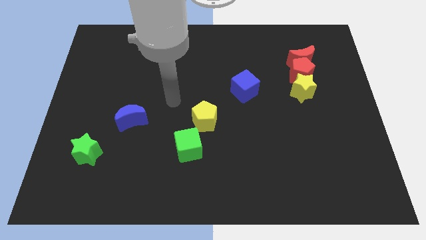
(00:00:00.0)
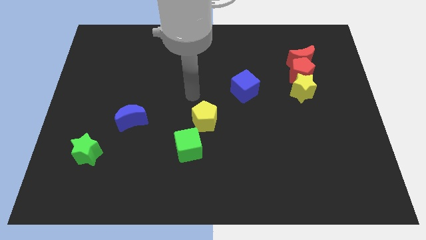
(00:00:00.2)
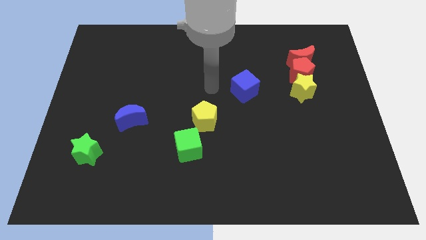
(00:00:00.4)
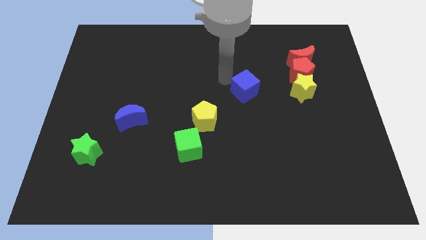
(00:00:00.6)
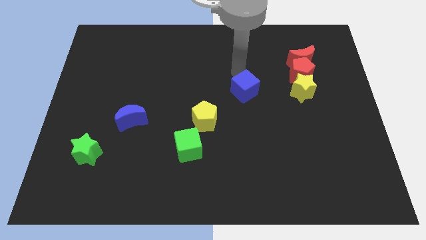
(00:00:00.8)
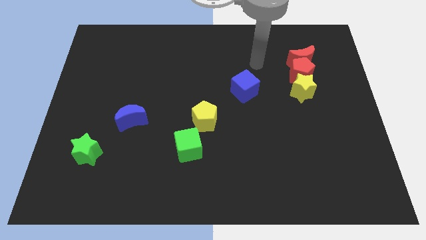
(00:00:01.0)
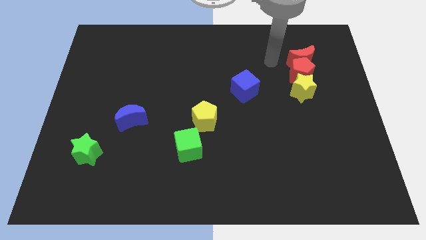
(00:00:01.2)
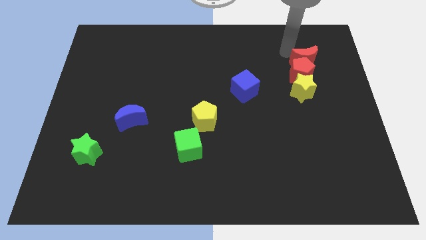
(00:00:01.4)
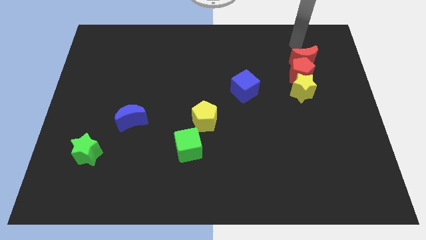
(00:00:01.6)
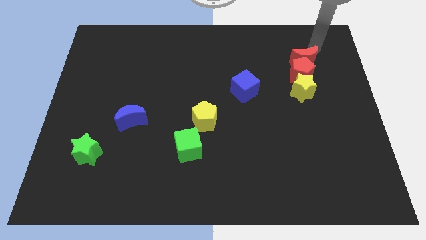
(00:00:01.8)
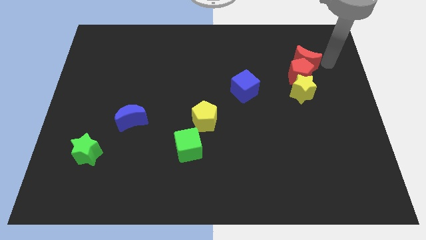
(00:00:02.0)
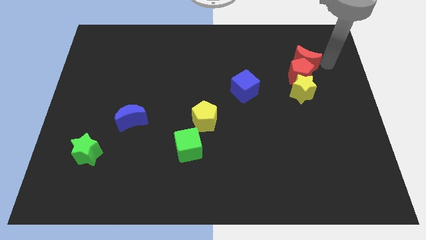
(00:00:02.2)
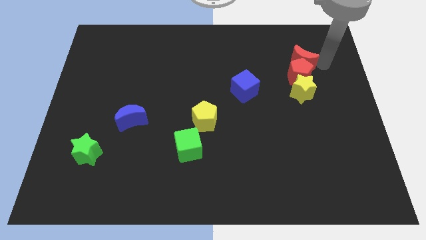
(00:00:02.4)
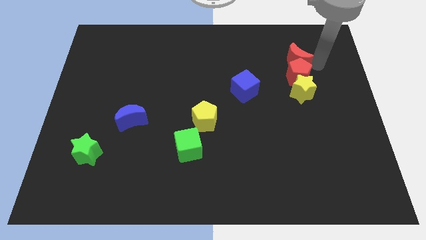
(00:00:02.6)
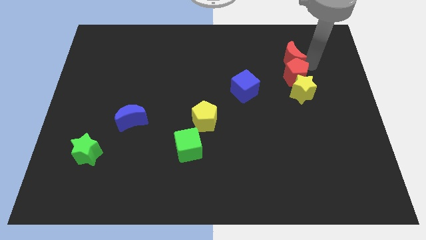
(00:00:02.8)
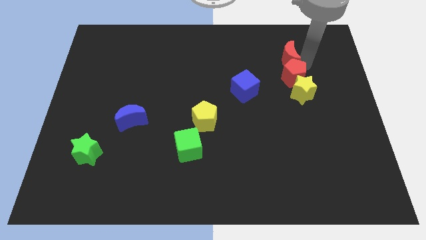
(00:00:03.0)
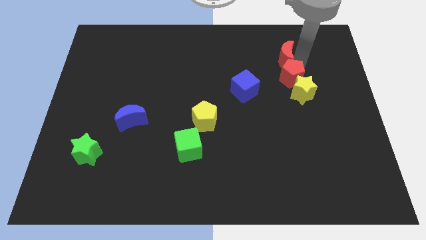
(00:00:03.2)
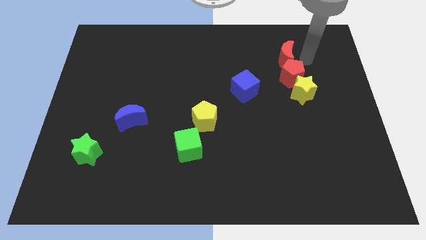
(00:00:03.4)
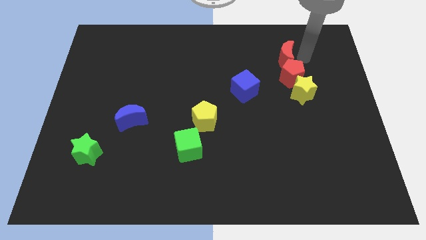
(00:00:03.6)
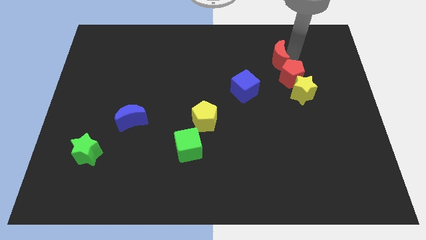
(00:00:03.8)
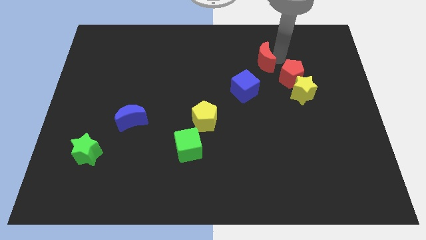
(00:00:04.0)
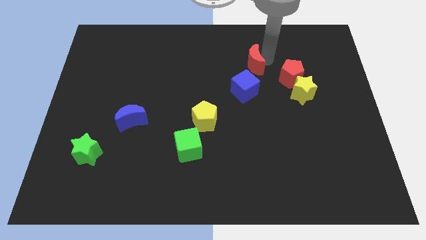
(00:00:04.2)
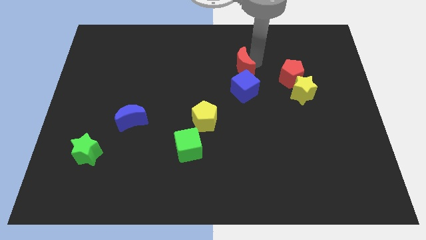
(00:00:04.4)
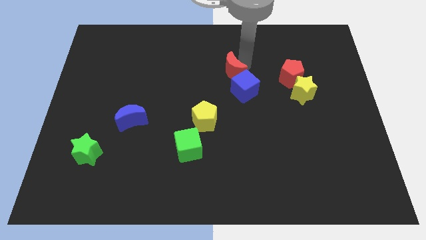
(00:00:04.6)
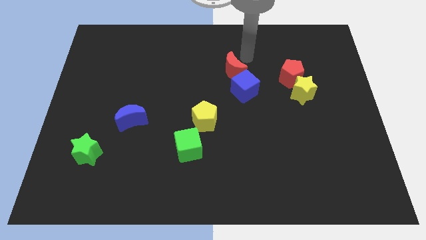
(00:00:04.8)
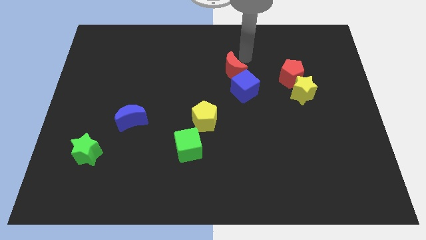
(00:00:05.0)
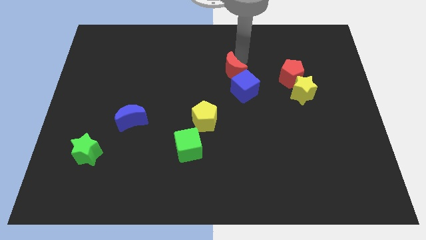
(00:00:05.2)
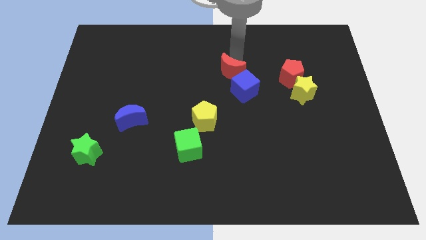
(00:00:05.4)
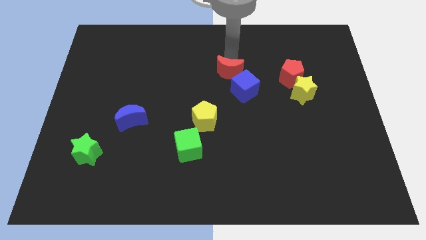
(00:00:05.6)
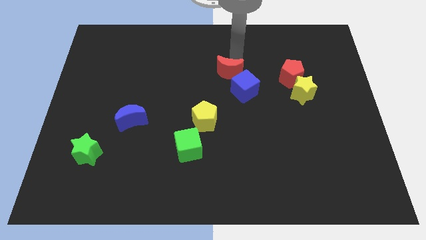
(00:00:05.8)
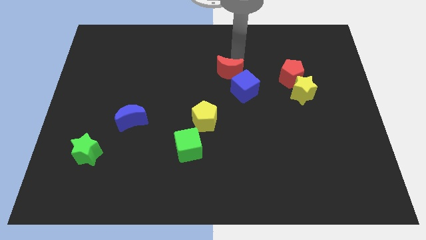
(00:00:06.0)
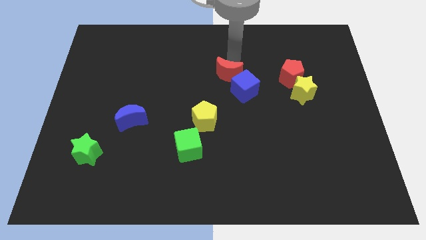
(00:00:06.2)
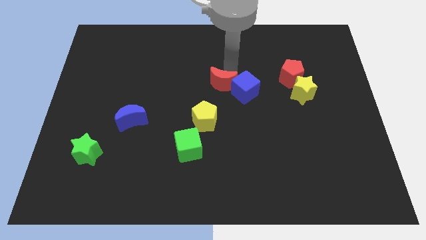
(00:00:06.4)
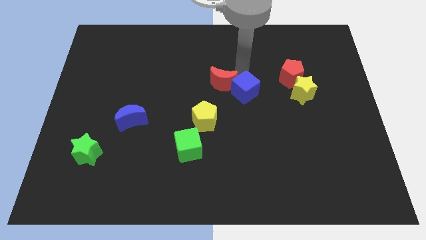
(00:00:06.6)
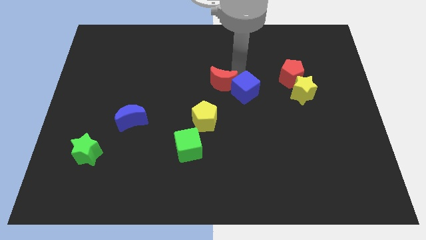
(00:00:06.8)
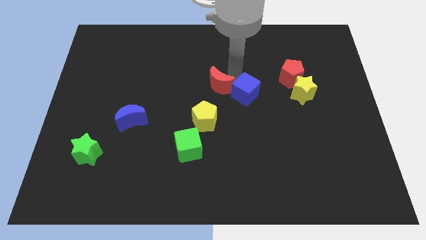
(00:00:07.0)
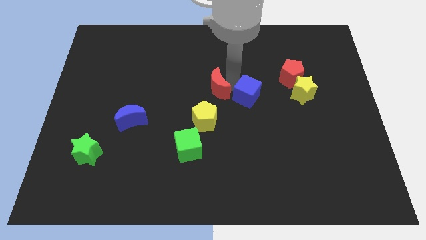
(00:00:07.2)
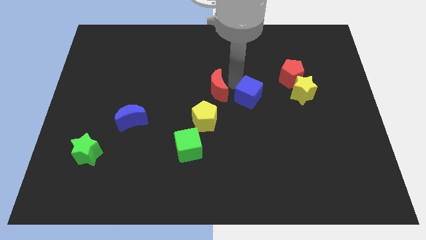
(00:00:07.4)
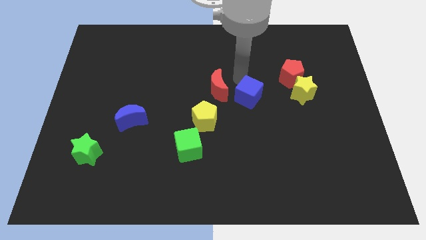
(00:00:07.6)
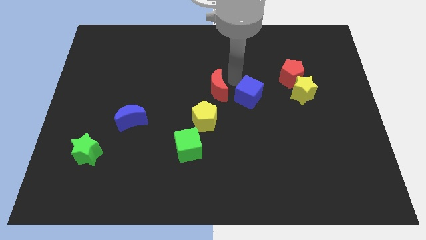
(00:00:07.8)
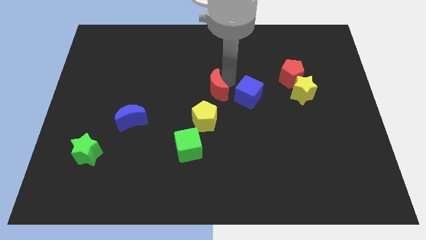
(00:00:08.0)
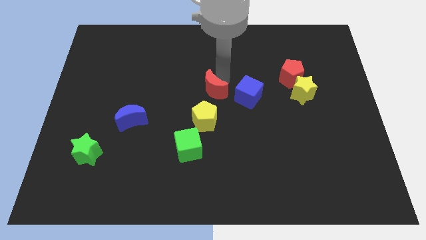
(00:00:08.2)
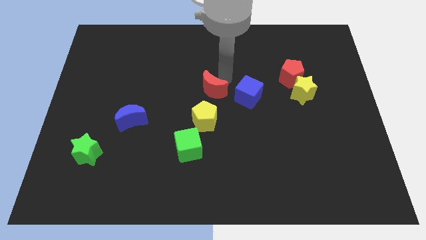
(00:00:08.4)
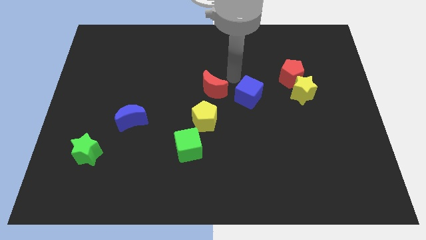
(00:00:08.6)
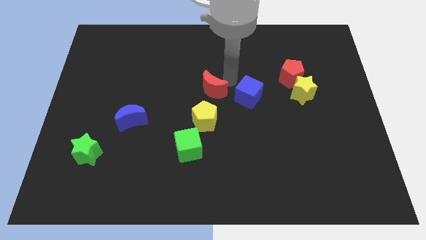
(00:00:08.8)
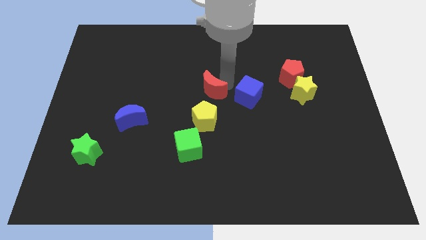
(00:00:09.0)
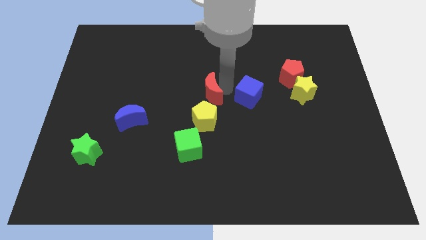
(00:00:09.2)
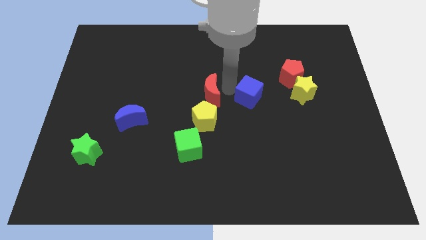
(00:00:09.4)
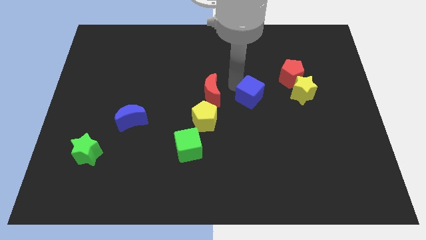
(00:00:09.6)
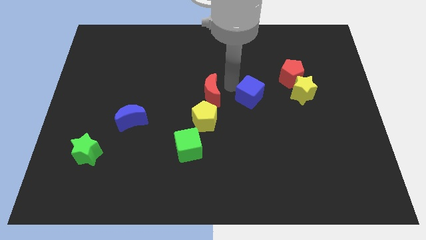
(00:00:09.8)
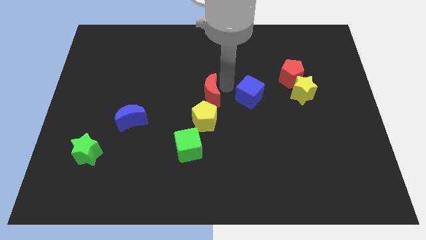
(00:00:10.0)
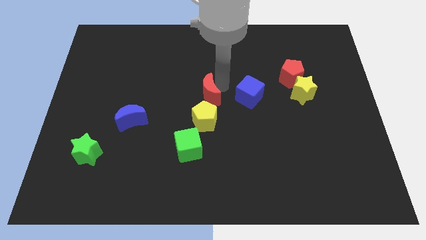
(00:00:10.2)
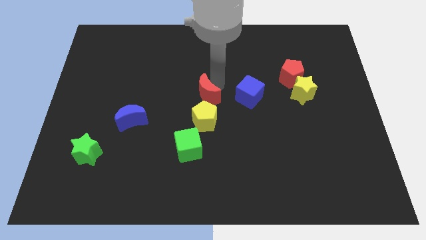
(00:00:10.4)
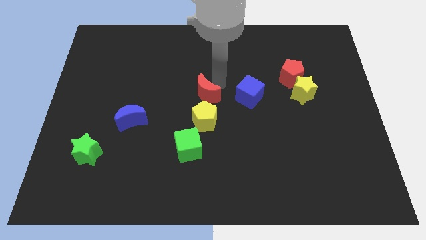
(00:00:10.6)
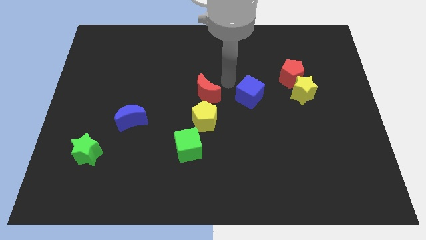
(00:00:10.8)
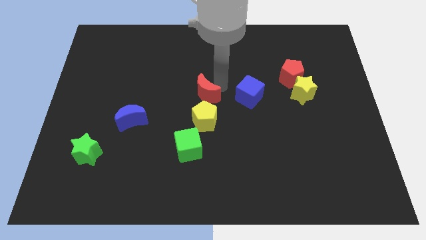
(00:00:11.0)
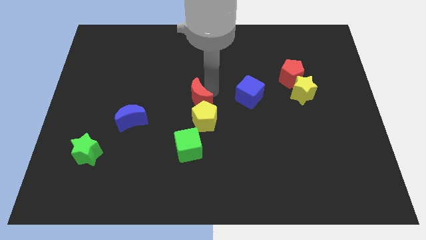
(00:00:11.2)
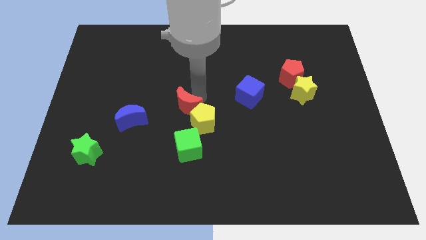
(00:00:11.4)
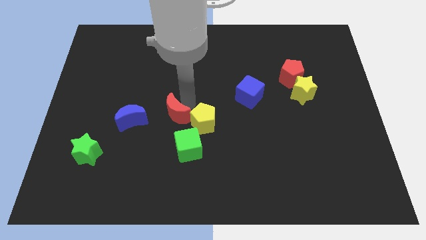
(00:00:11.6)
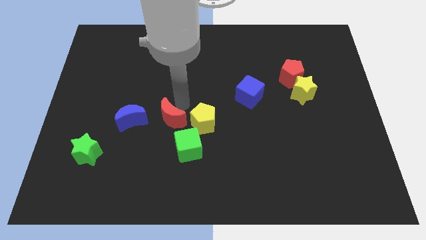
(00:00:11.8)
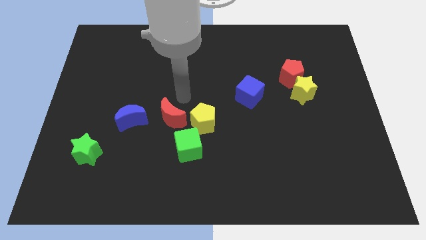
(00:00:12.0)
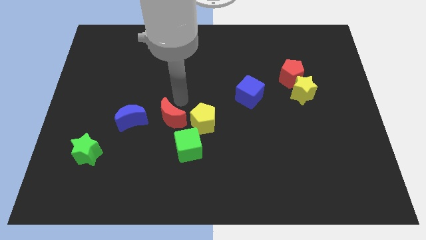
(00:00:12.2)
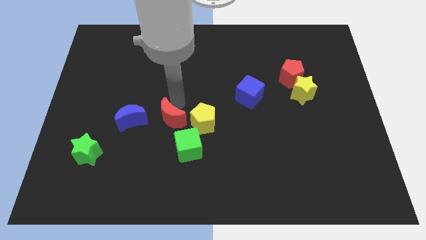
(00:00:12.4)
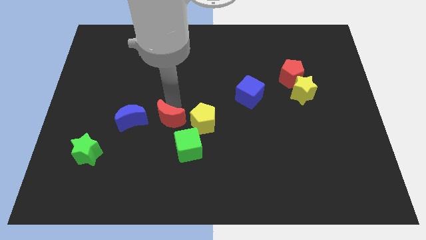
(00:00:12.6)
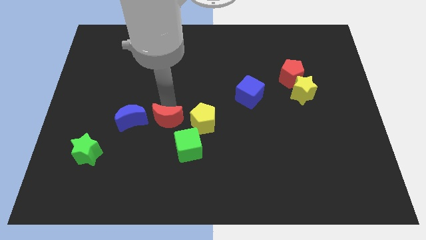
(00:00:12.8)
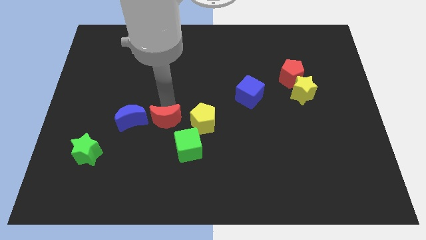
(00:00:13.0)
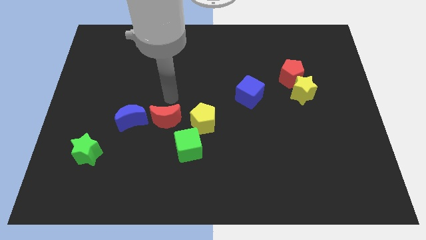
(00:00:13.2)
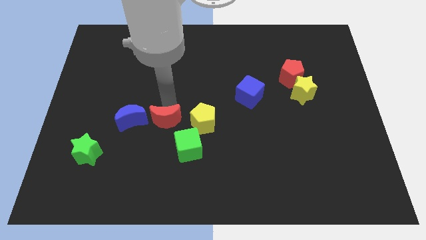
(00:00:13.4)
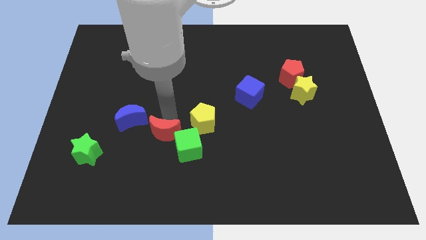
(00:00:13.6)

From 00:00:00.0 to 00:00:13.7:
push the red moon to the left side of the green cube
